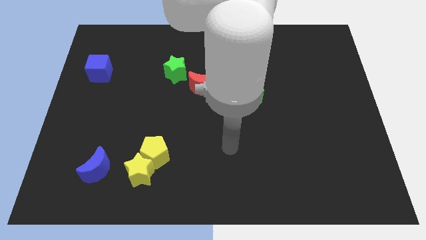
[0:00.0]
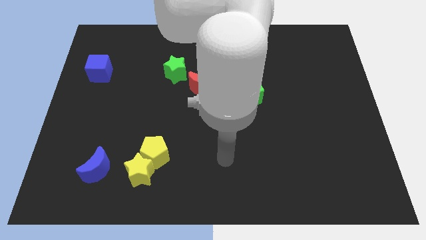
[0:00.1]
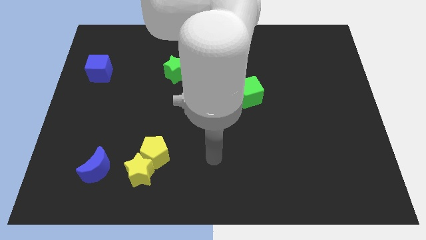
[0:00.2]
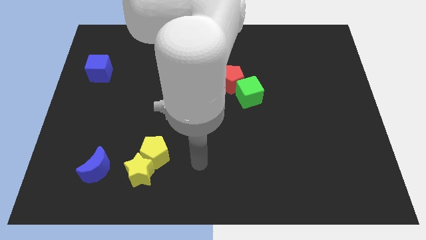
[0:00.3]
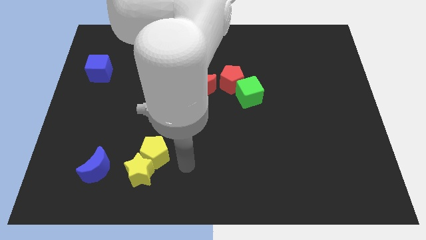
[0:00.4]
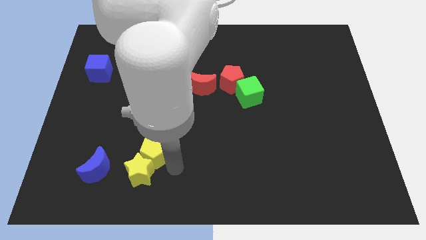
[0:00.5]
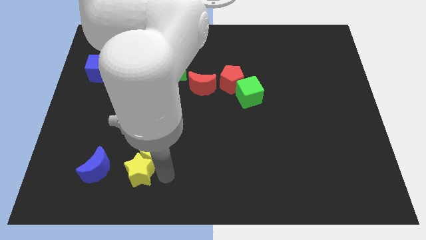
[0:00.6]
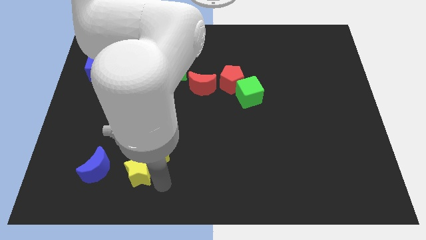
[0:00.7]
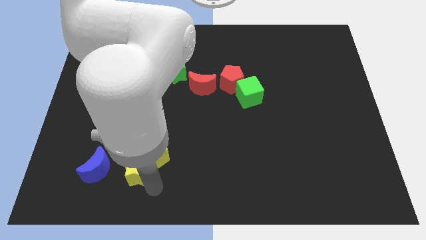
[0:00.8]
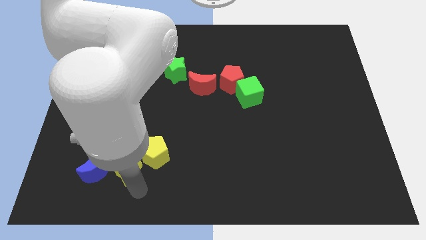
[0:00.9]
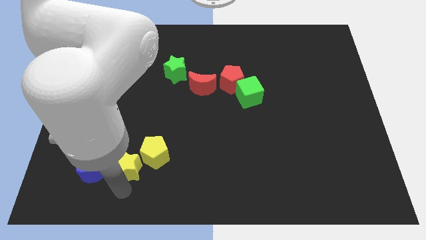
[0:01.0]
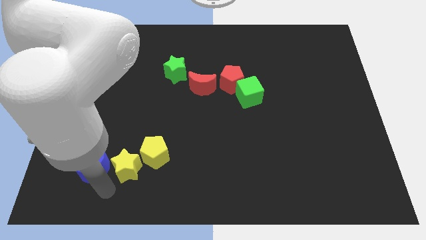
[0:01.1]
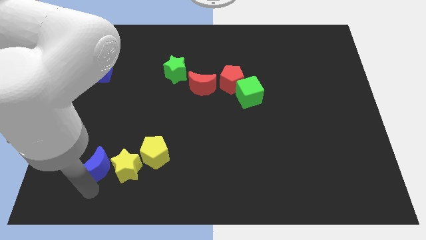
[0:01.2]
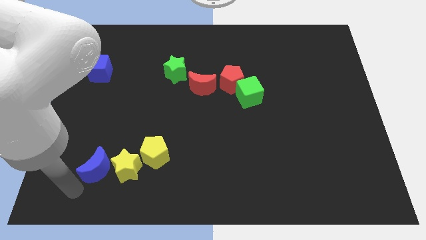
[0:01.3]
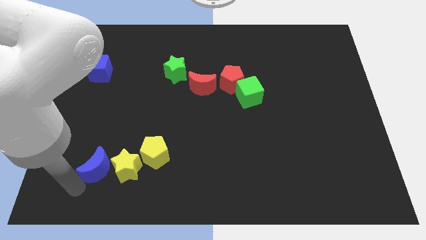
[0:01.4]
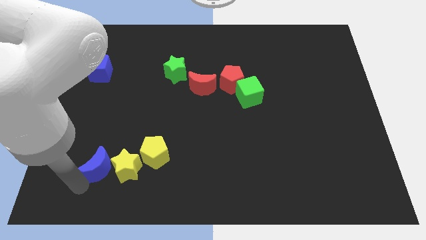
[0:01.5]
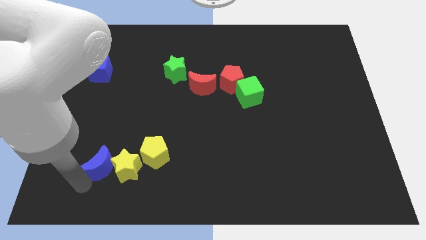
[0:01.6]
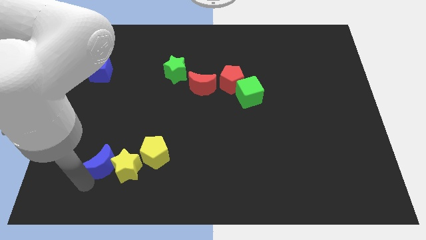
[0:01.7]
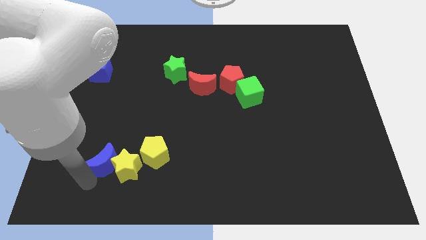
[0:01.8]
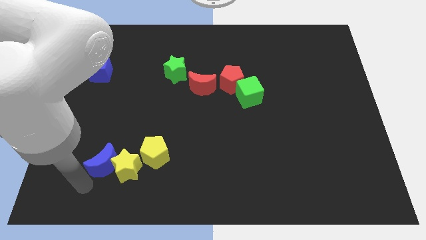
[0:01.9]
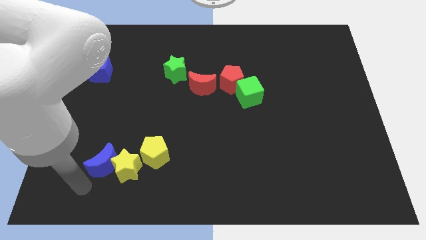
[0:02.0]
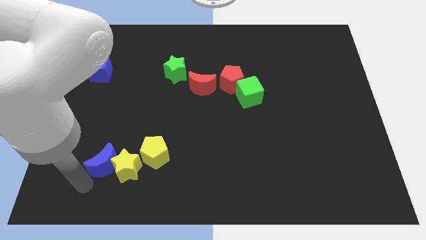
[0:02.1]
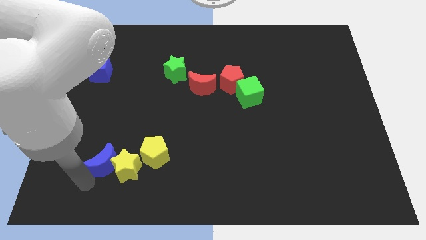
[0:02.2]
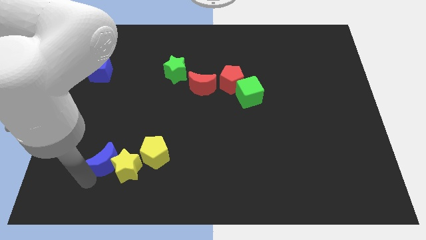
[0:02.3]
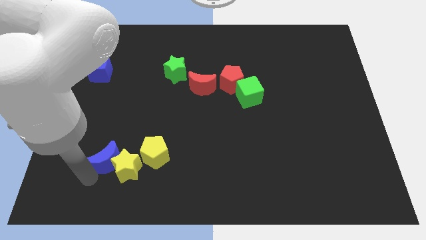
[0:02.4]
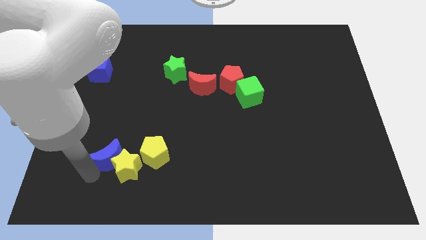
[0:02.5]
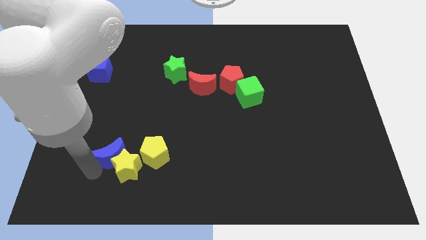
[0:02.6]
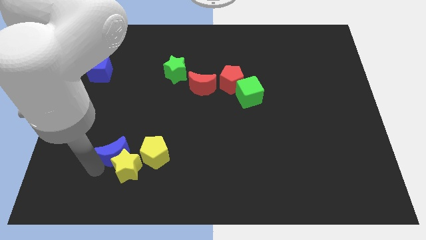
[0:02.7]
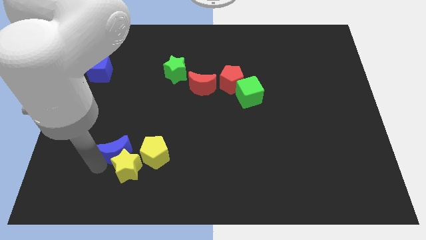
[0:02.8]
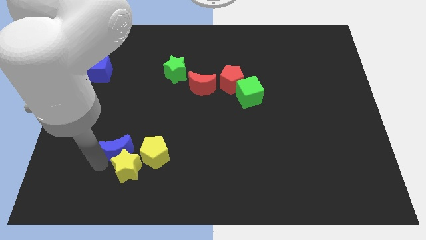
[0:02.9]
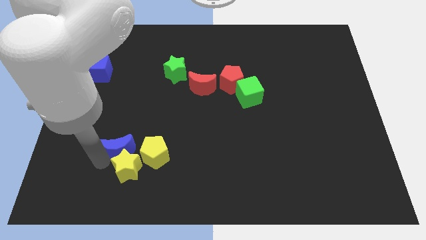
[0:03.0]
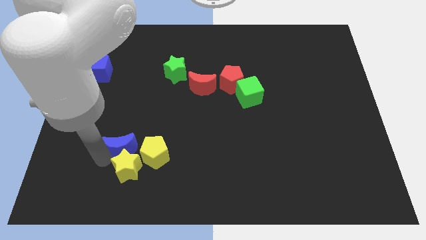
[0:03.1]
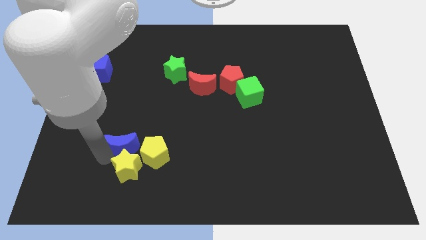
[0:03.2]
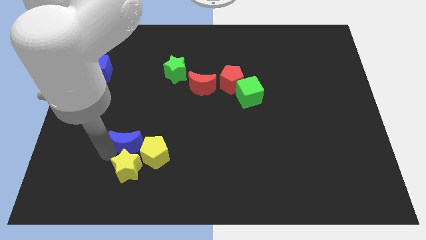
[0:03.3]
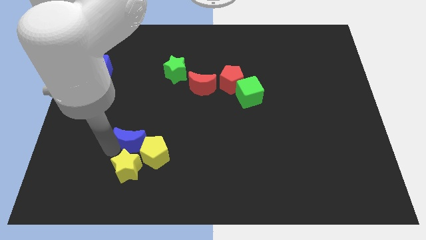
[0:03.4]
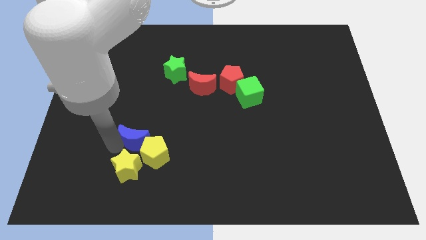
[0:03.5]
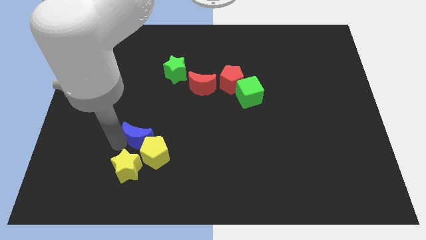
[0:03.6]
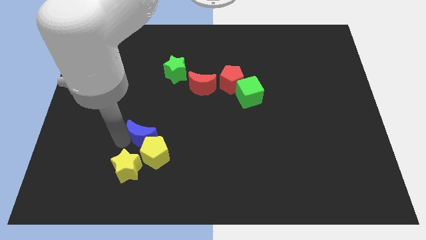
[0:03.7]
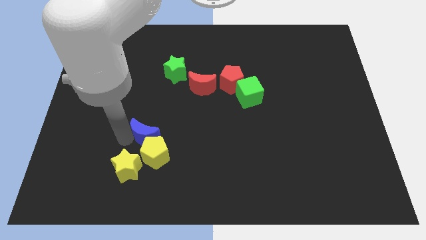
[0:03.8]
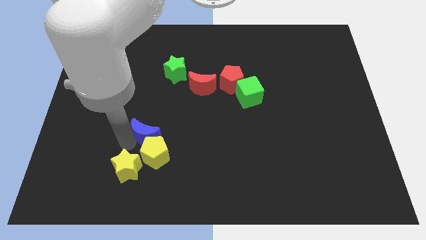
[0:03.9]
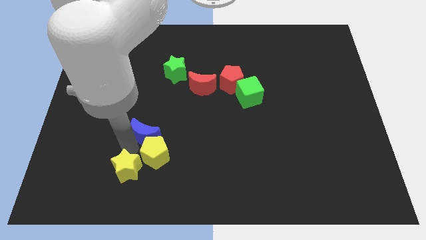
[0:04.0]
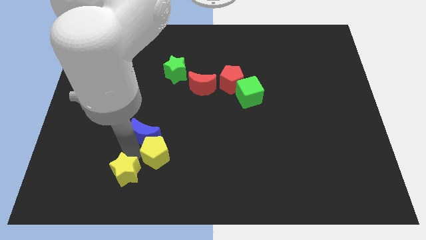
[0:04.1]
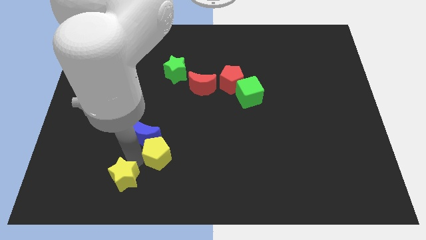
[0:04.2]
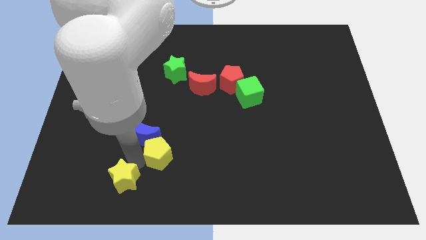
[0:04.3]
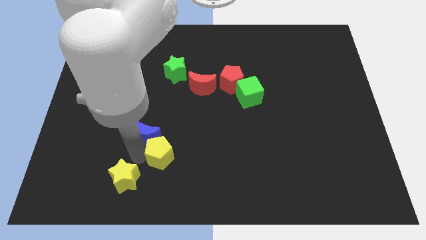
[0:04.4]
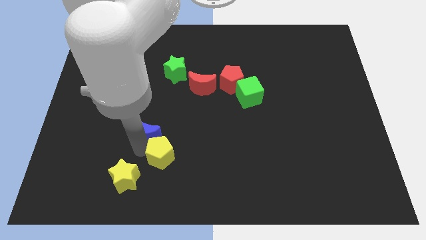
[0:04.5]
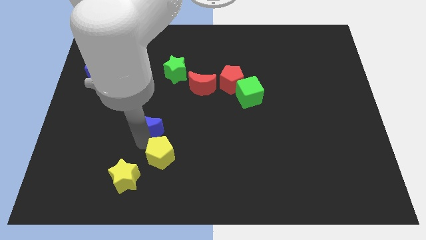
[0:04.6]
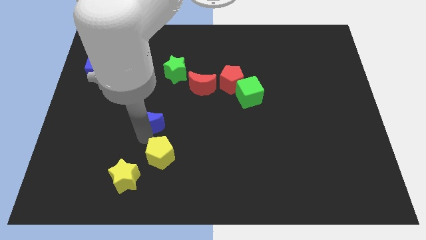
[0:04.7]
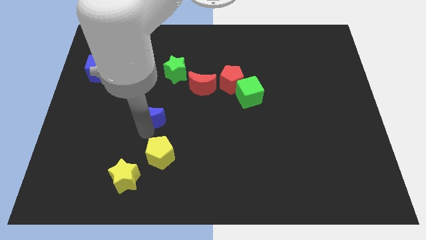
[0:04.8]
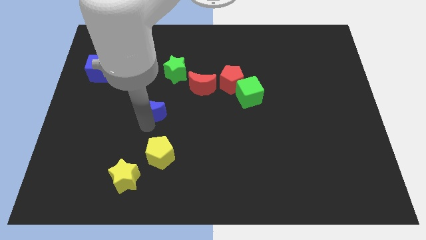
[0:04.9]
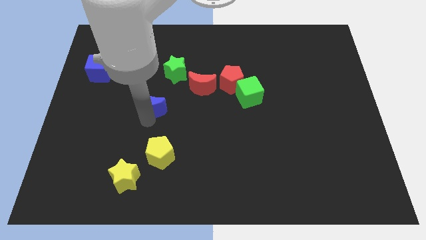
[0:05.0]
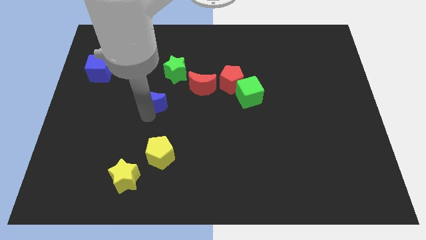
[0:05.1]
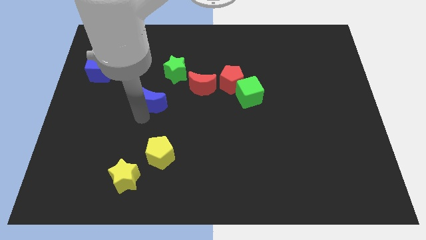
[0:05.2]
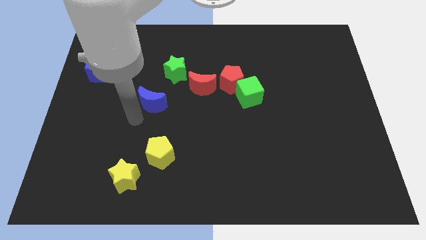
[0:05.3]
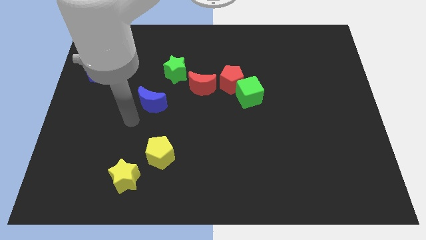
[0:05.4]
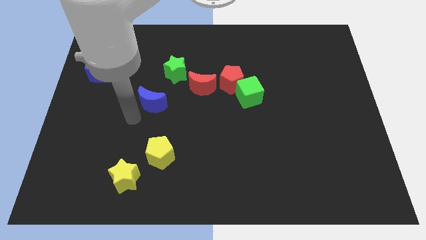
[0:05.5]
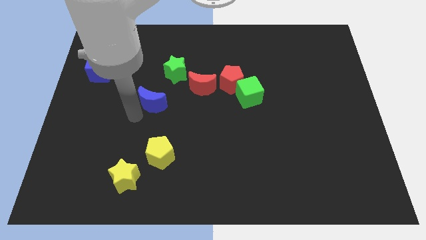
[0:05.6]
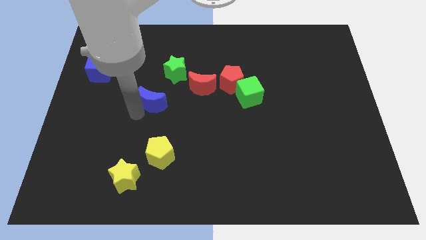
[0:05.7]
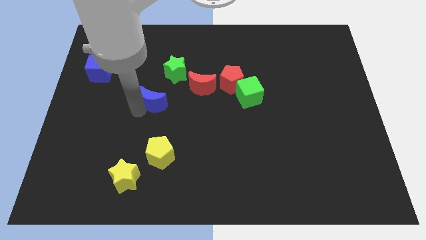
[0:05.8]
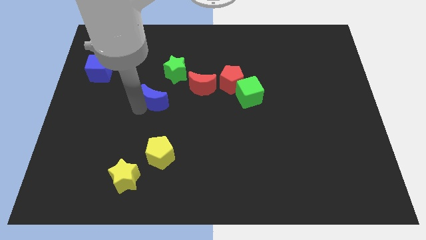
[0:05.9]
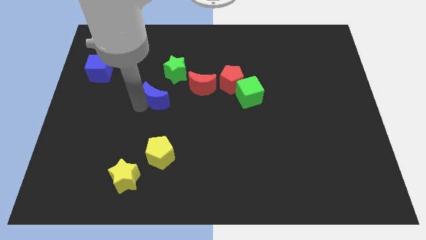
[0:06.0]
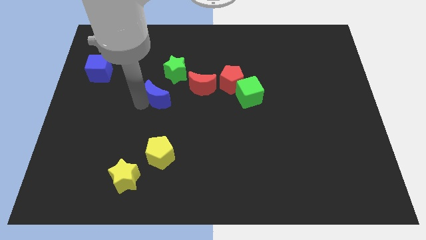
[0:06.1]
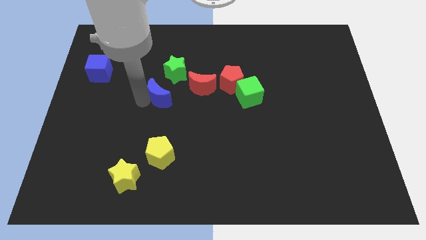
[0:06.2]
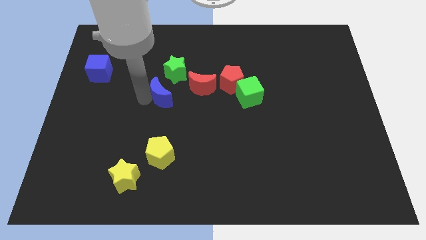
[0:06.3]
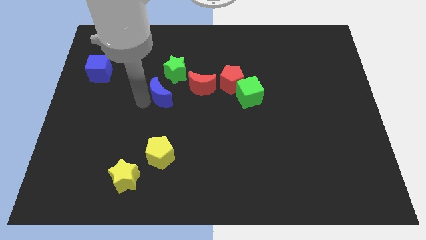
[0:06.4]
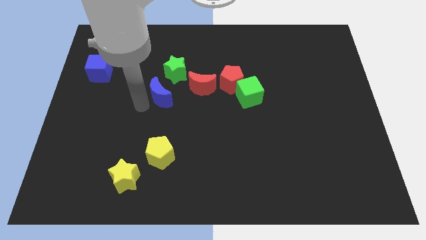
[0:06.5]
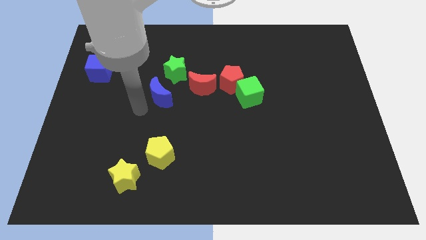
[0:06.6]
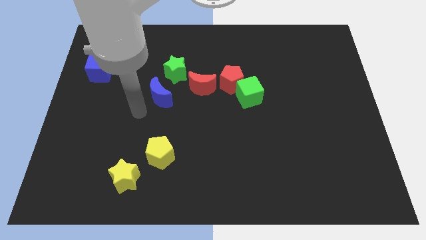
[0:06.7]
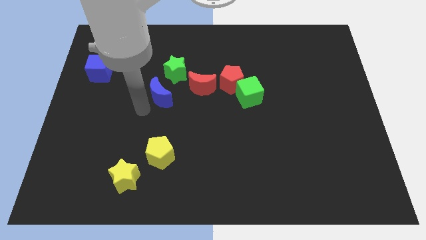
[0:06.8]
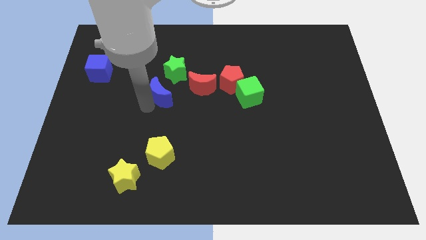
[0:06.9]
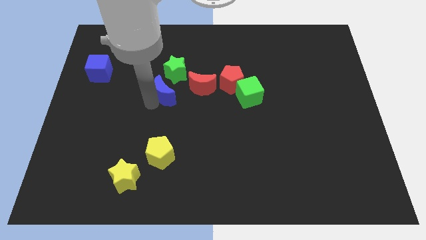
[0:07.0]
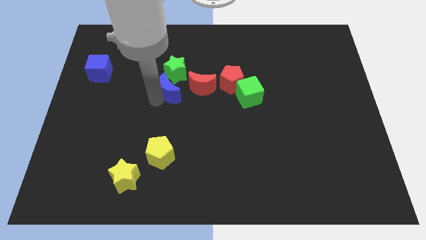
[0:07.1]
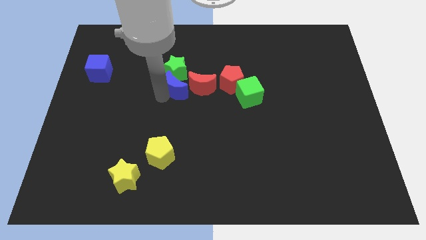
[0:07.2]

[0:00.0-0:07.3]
slide the blue moon left of the red pentagon
